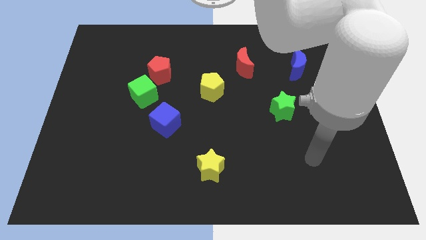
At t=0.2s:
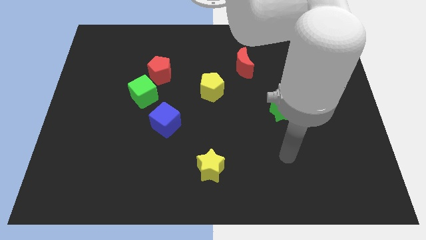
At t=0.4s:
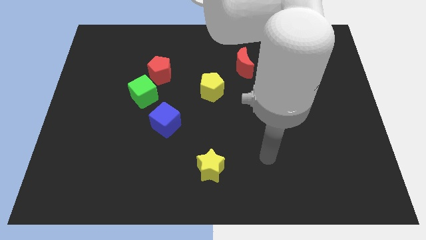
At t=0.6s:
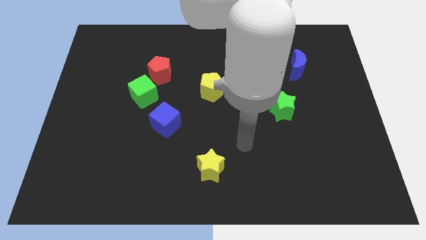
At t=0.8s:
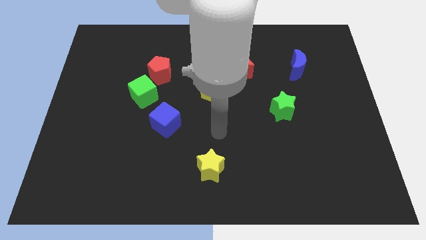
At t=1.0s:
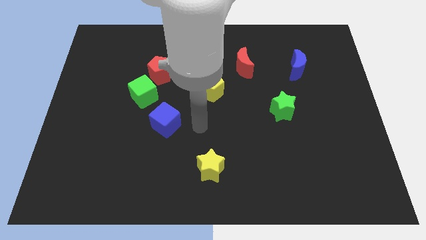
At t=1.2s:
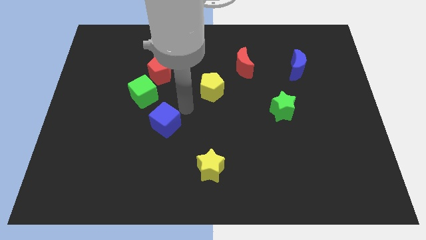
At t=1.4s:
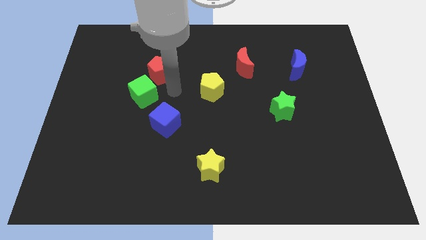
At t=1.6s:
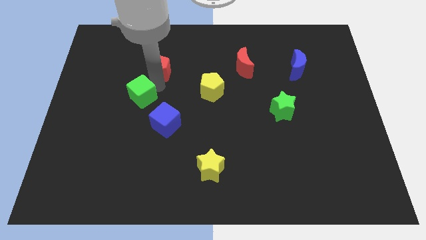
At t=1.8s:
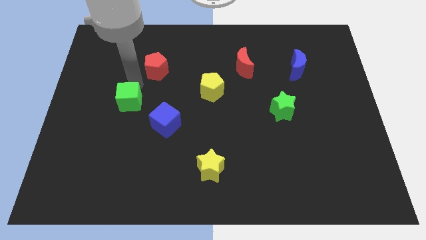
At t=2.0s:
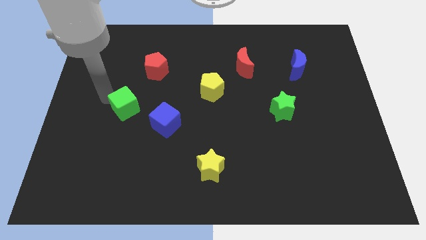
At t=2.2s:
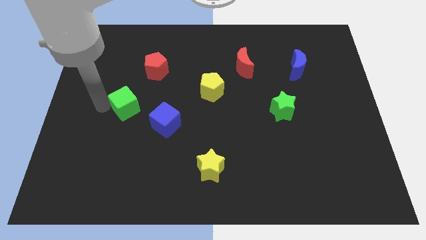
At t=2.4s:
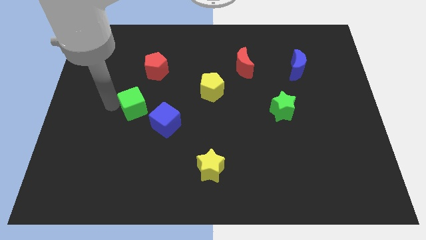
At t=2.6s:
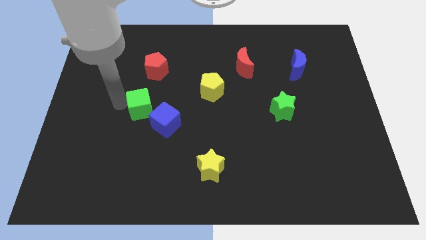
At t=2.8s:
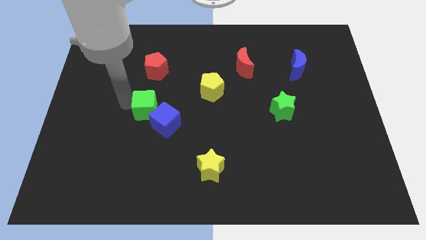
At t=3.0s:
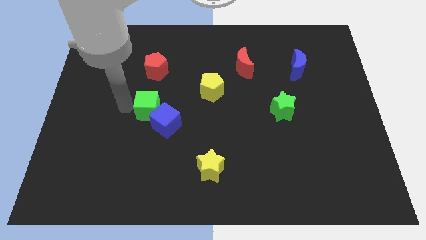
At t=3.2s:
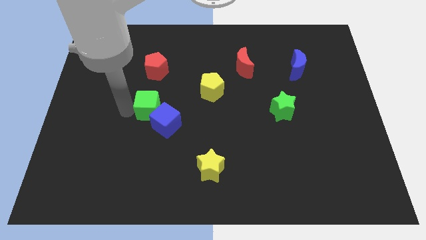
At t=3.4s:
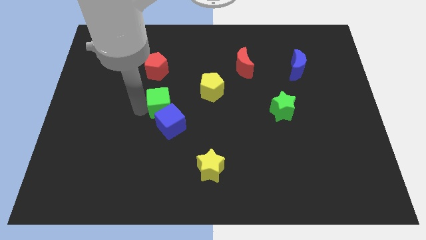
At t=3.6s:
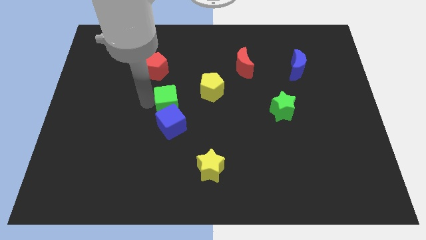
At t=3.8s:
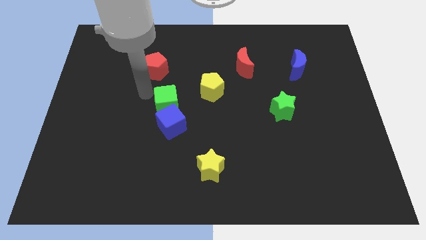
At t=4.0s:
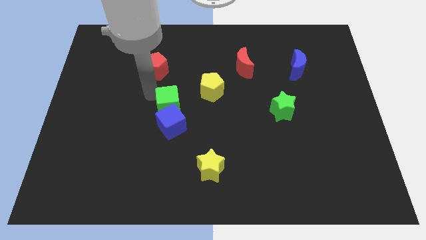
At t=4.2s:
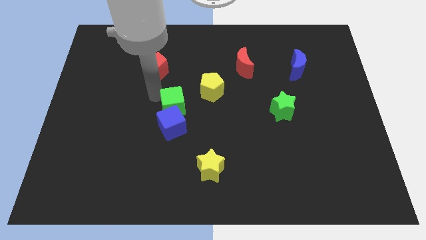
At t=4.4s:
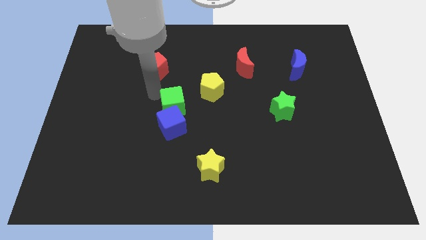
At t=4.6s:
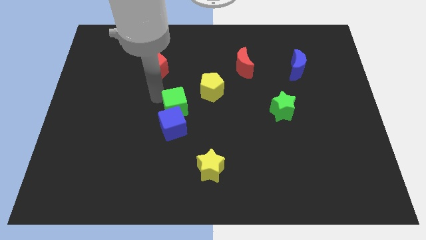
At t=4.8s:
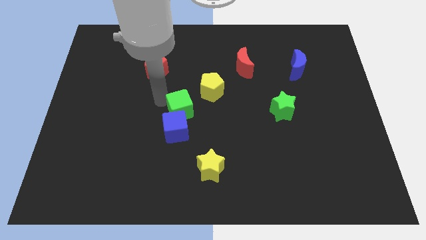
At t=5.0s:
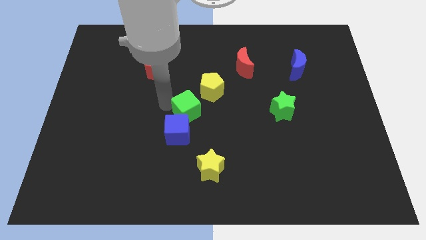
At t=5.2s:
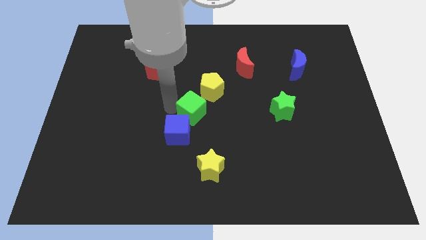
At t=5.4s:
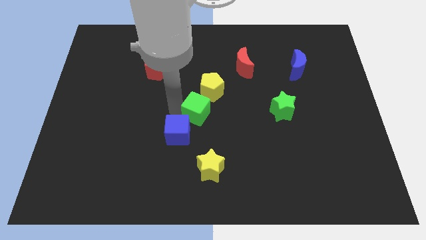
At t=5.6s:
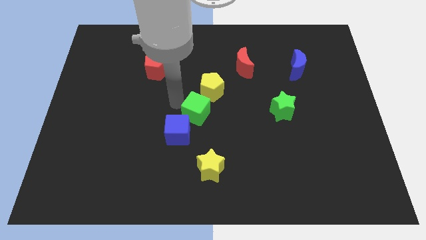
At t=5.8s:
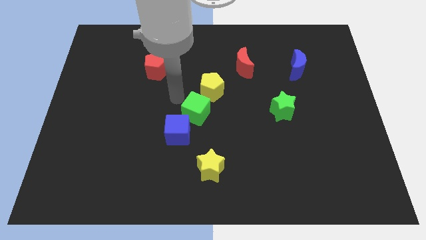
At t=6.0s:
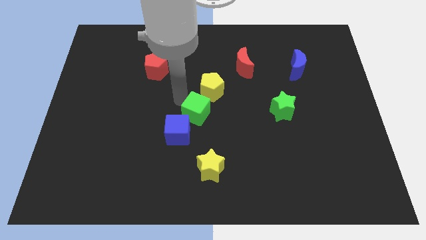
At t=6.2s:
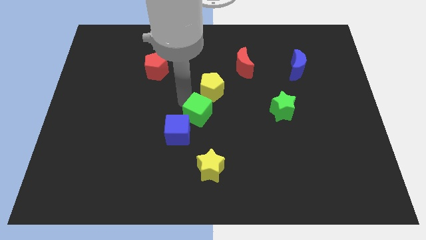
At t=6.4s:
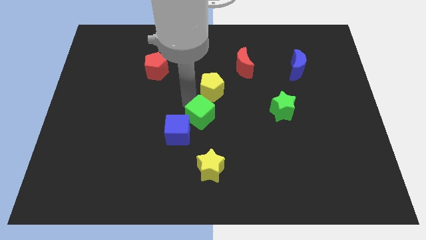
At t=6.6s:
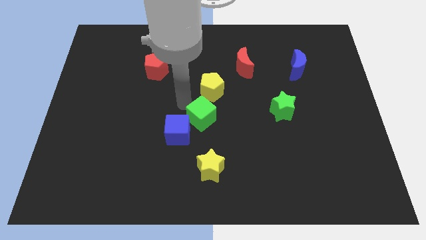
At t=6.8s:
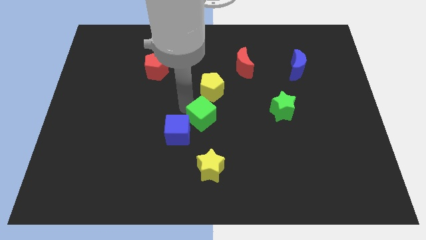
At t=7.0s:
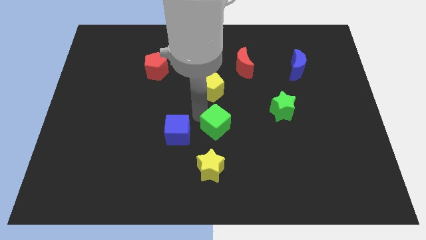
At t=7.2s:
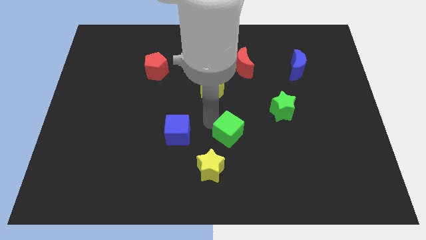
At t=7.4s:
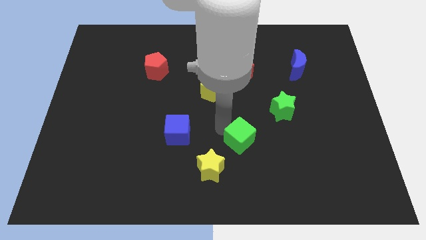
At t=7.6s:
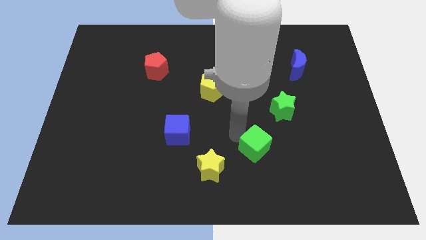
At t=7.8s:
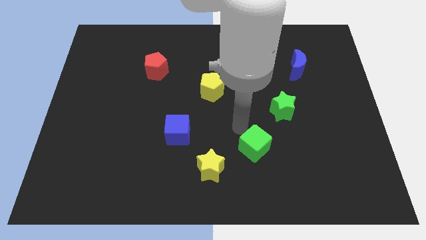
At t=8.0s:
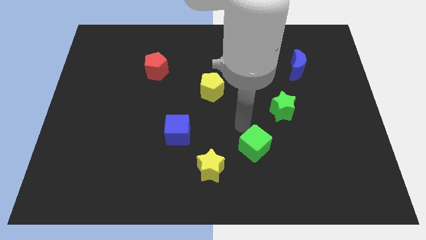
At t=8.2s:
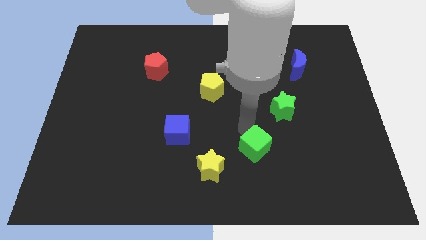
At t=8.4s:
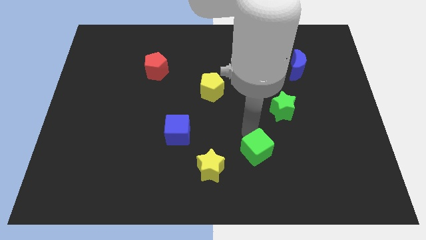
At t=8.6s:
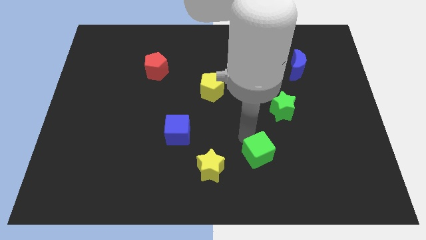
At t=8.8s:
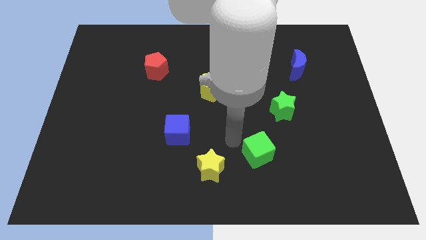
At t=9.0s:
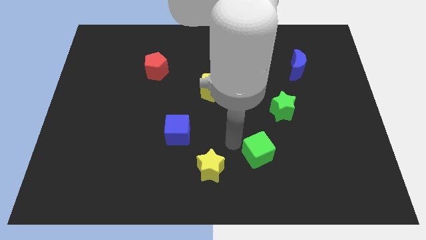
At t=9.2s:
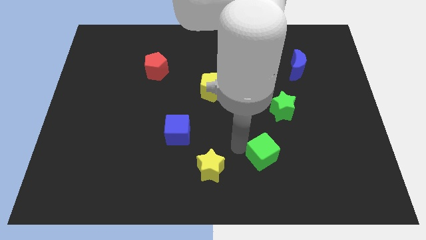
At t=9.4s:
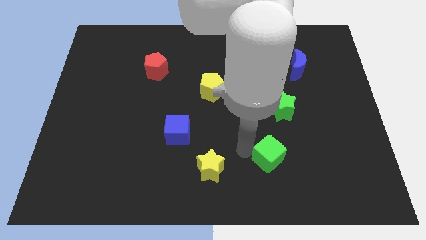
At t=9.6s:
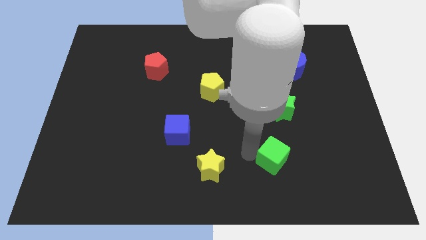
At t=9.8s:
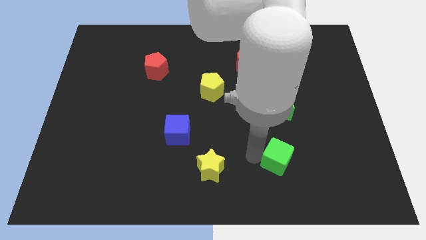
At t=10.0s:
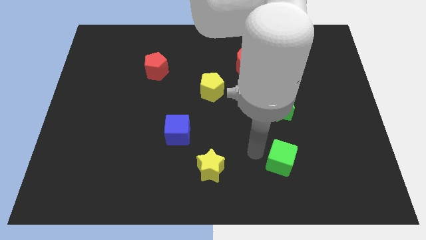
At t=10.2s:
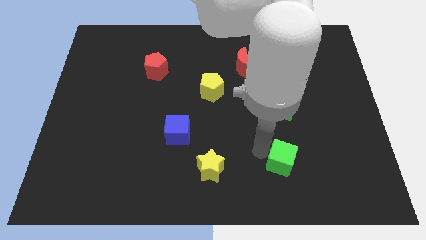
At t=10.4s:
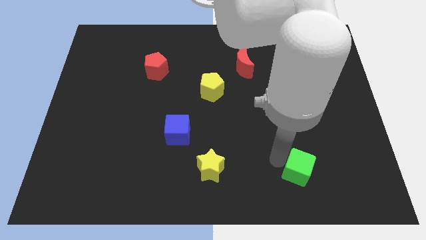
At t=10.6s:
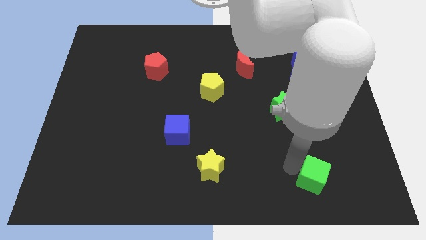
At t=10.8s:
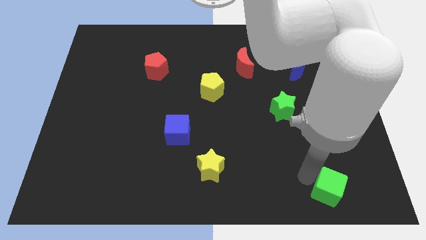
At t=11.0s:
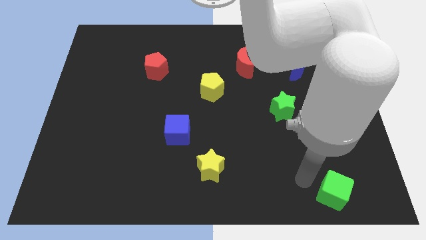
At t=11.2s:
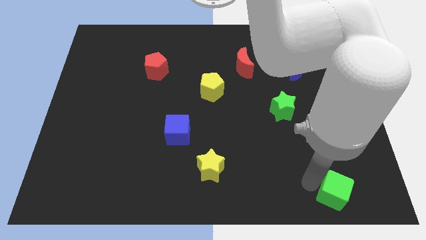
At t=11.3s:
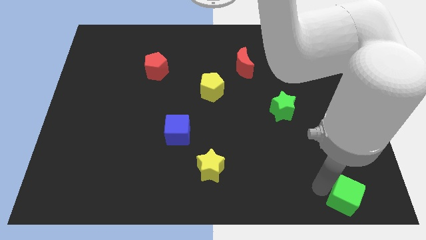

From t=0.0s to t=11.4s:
move the green cube to the bottom right corner

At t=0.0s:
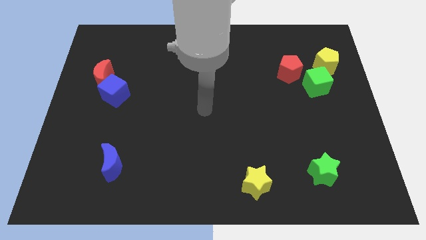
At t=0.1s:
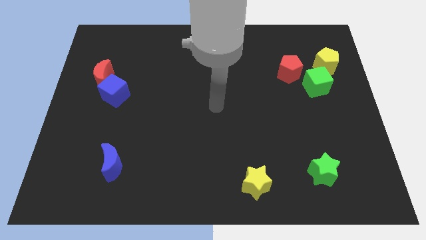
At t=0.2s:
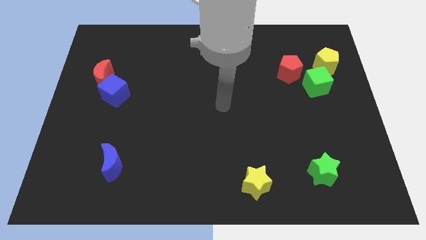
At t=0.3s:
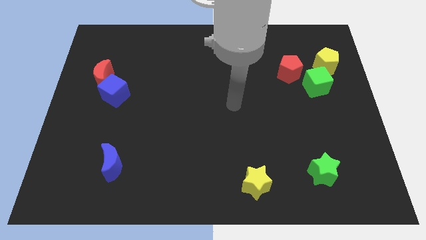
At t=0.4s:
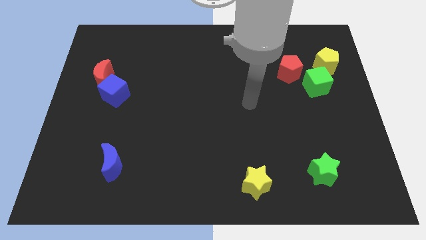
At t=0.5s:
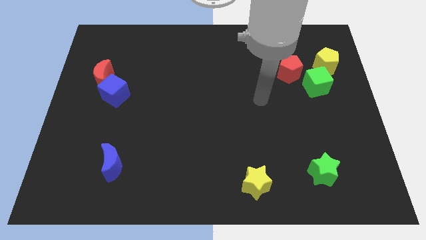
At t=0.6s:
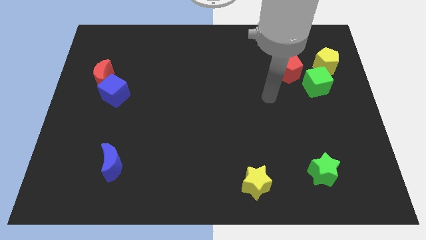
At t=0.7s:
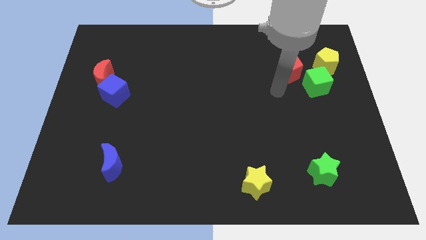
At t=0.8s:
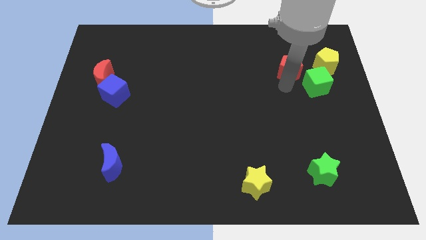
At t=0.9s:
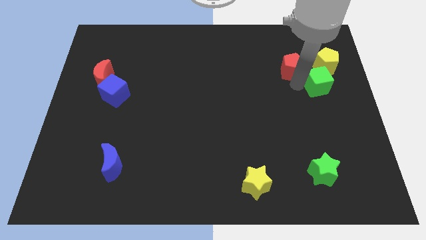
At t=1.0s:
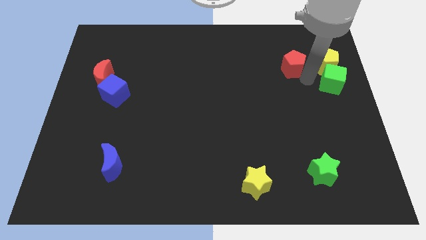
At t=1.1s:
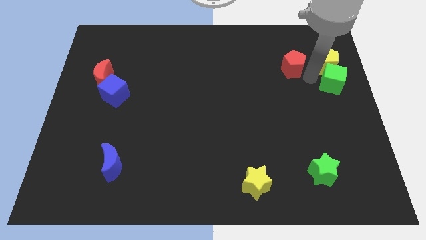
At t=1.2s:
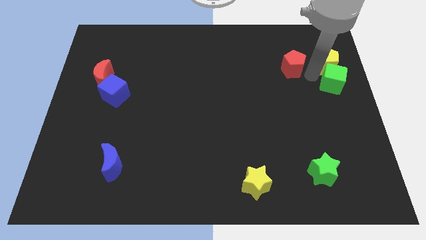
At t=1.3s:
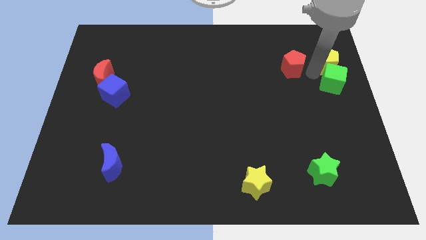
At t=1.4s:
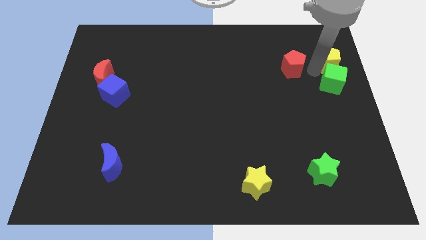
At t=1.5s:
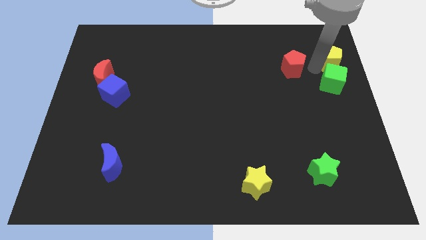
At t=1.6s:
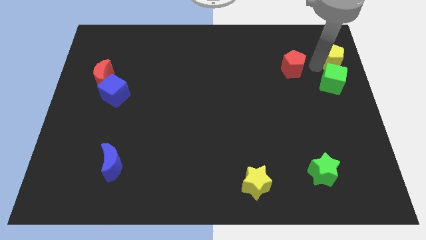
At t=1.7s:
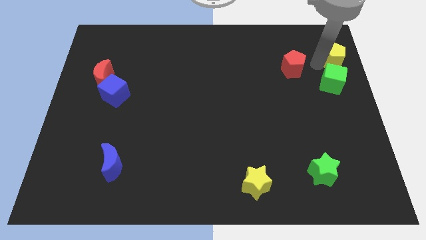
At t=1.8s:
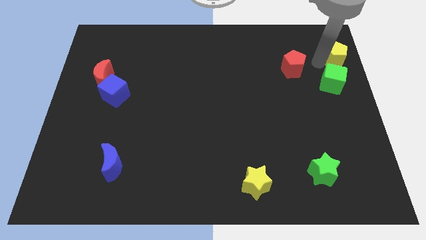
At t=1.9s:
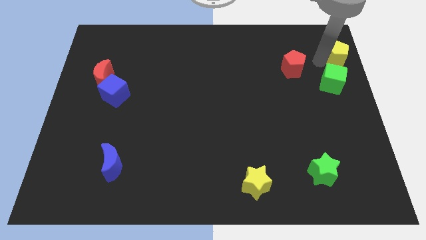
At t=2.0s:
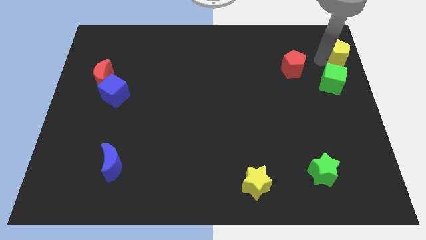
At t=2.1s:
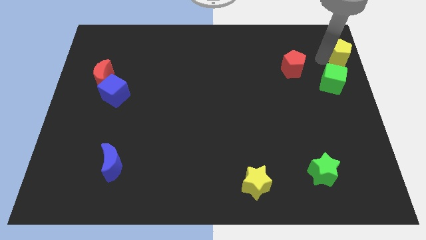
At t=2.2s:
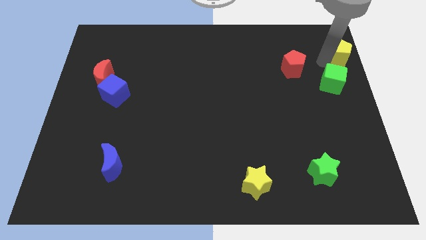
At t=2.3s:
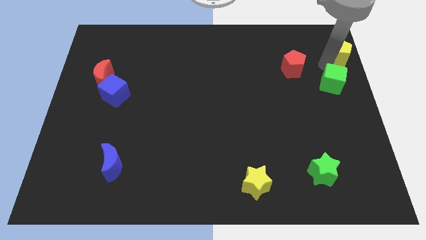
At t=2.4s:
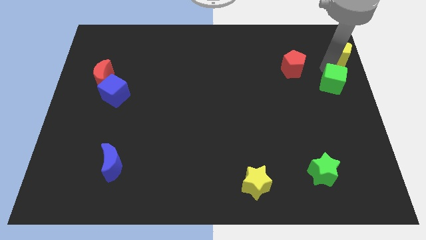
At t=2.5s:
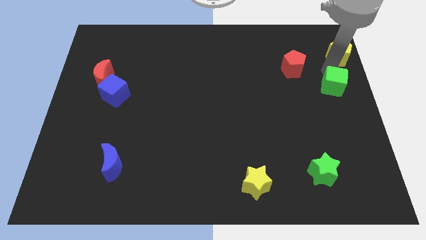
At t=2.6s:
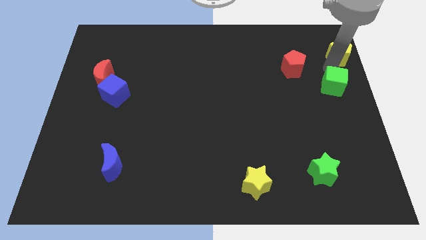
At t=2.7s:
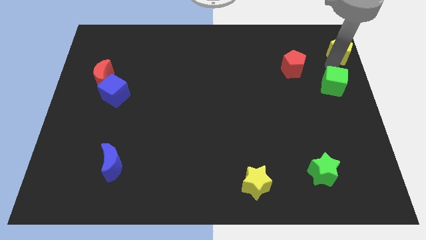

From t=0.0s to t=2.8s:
slide the yellow pentagon to the top right corner
